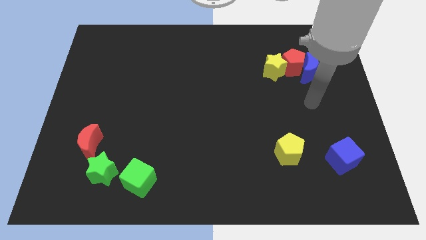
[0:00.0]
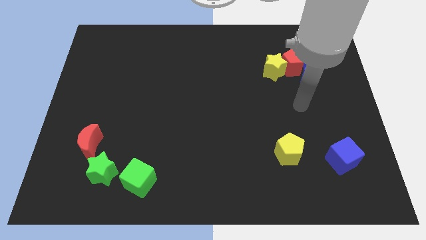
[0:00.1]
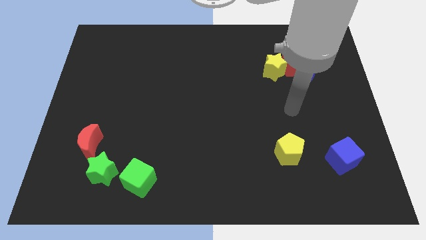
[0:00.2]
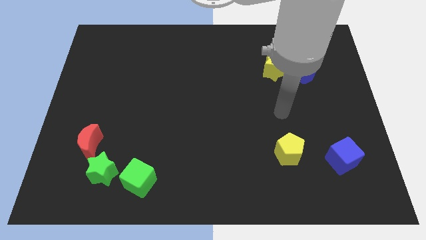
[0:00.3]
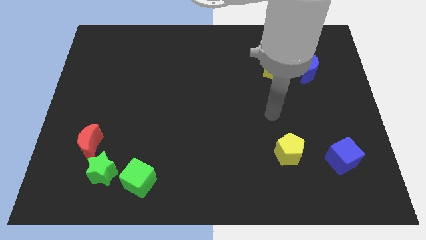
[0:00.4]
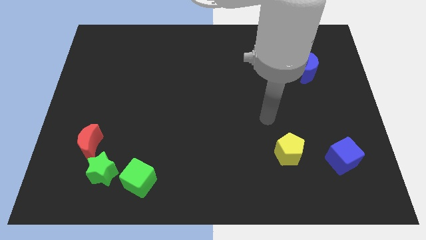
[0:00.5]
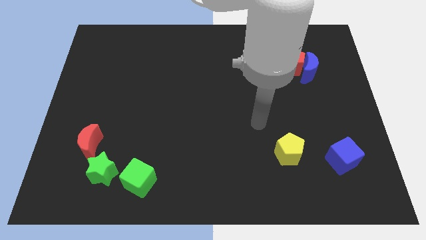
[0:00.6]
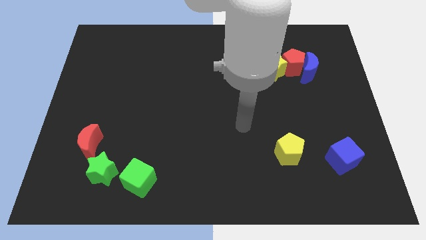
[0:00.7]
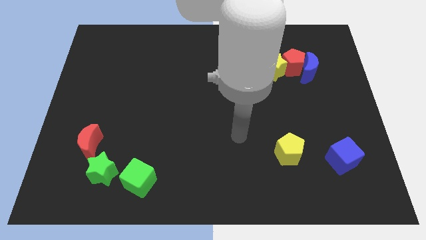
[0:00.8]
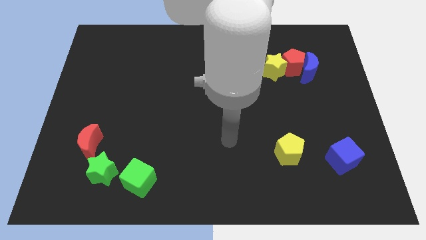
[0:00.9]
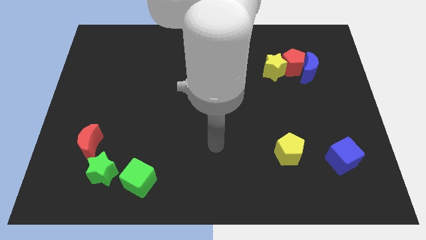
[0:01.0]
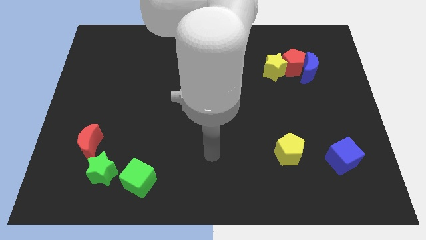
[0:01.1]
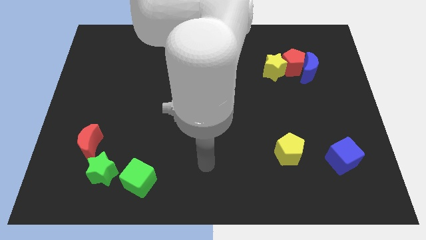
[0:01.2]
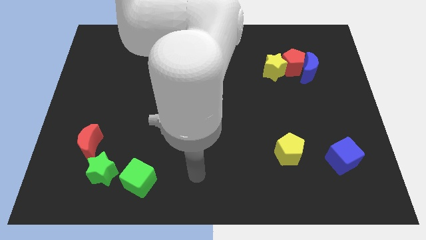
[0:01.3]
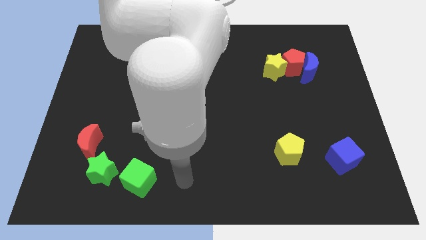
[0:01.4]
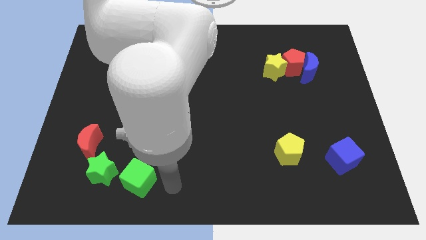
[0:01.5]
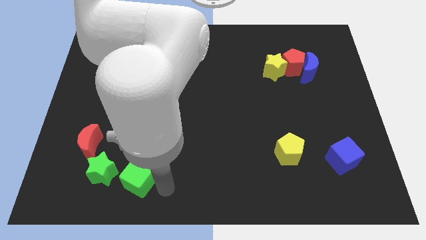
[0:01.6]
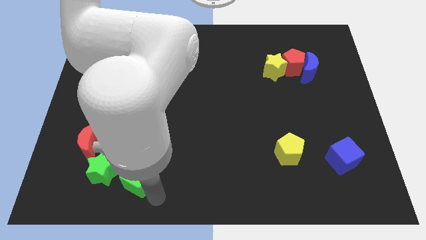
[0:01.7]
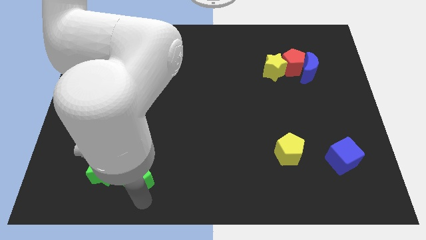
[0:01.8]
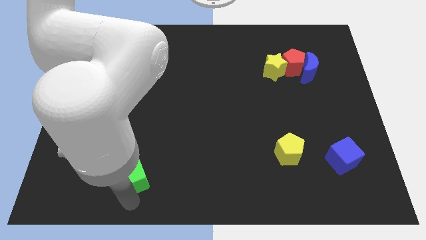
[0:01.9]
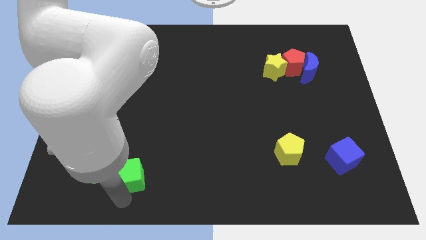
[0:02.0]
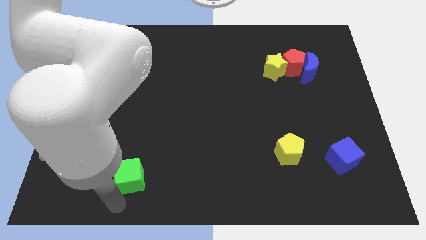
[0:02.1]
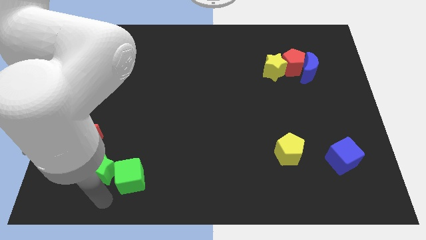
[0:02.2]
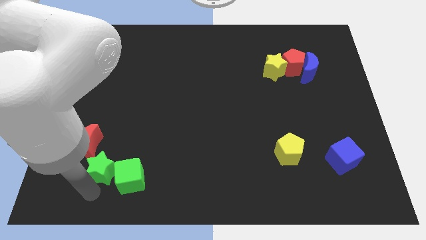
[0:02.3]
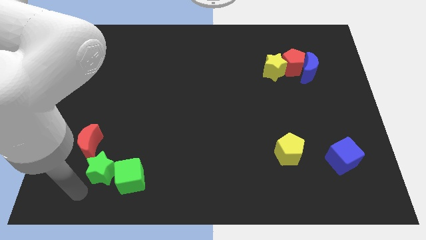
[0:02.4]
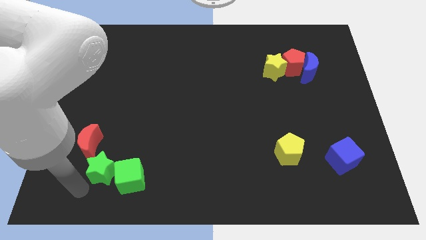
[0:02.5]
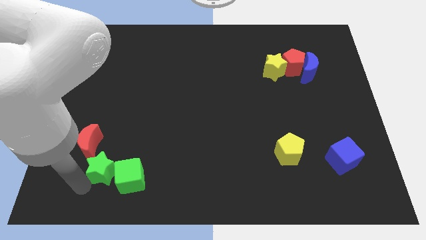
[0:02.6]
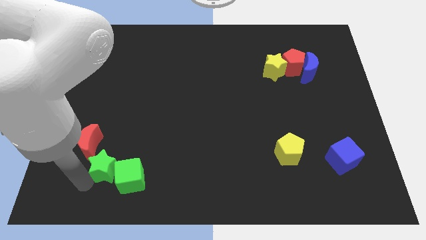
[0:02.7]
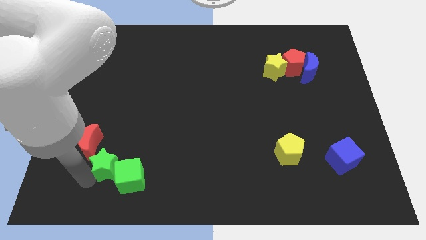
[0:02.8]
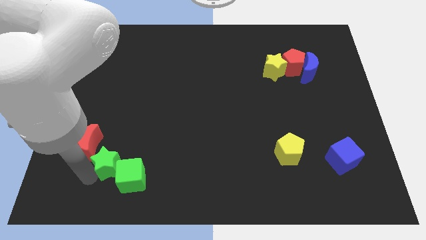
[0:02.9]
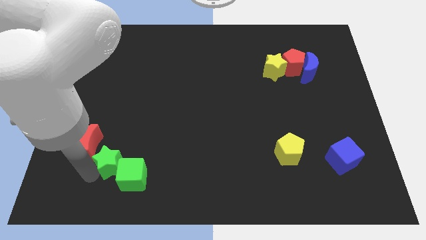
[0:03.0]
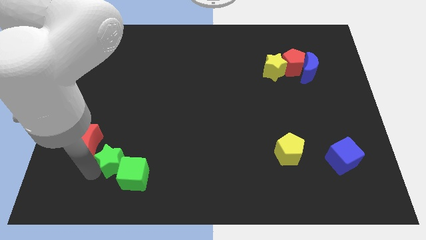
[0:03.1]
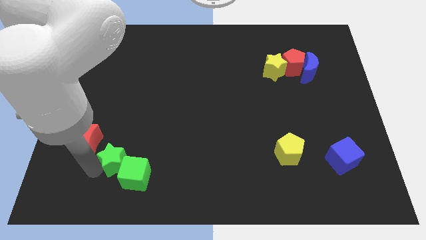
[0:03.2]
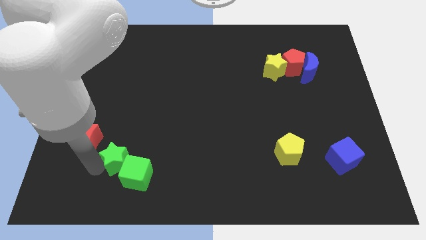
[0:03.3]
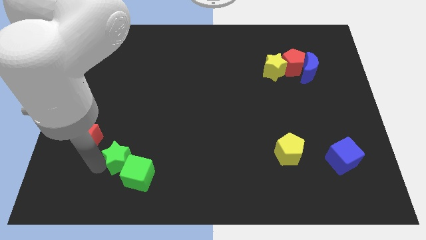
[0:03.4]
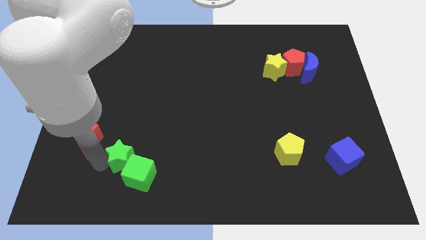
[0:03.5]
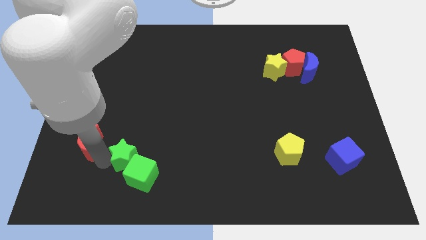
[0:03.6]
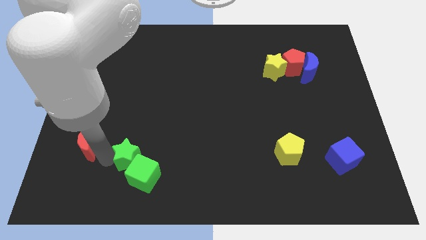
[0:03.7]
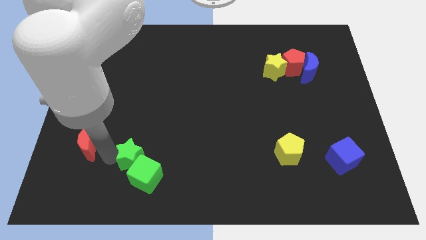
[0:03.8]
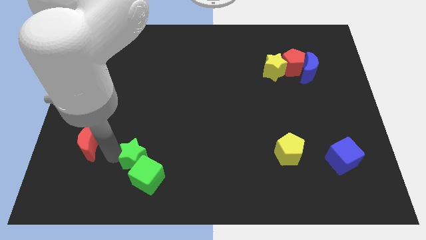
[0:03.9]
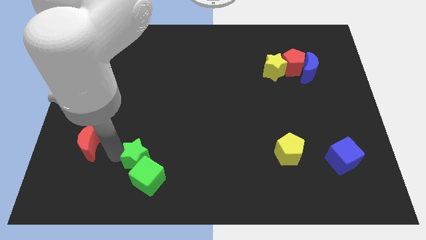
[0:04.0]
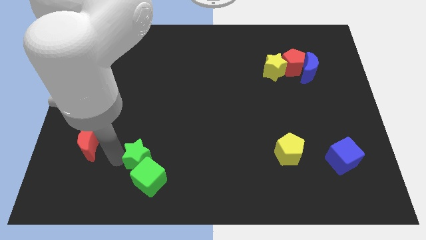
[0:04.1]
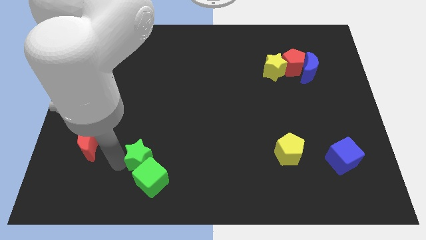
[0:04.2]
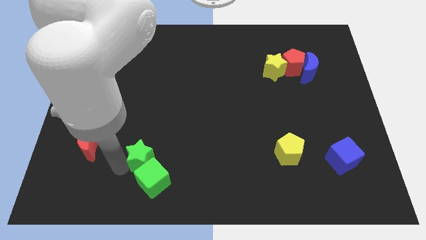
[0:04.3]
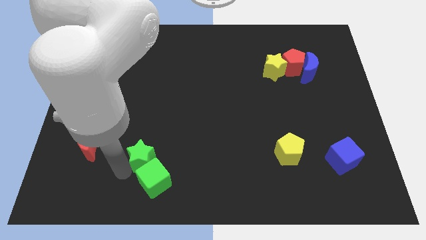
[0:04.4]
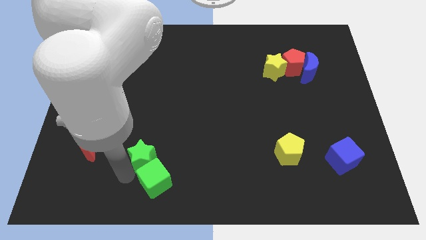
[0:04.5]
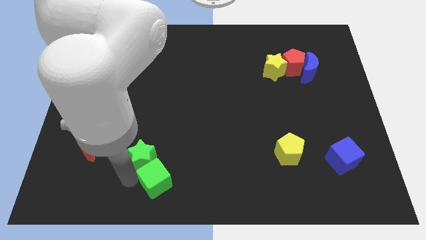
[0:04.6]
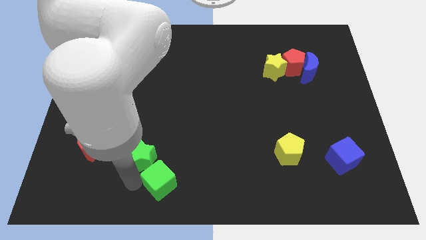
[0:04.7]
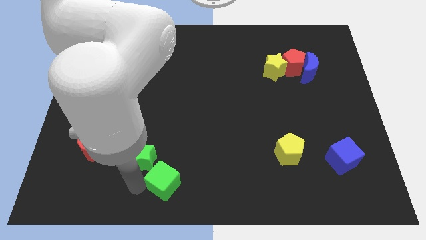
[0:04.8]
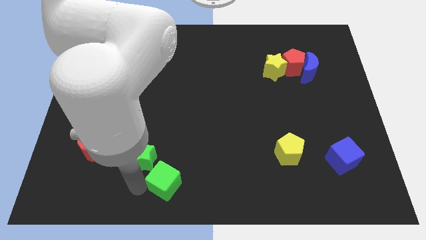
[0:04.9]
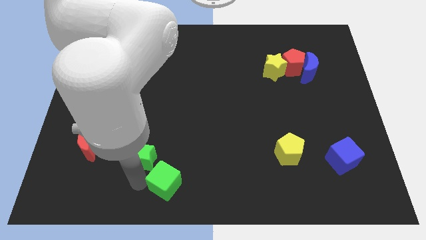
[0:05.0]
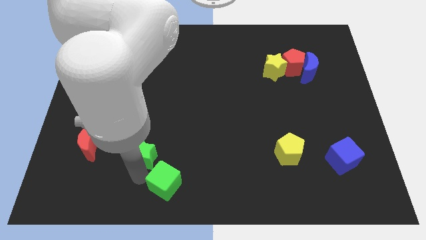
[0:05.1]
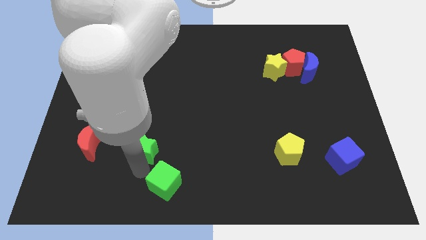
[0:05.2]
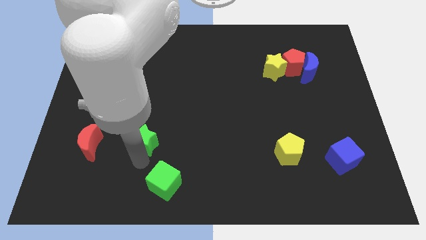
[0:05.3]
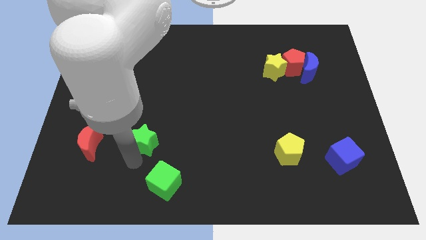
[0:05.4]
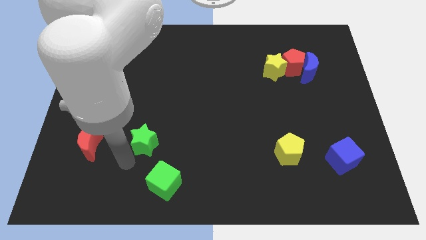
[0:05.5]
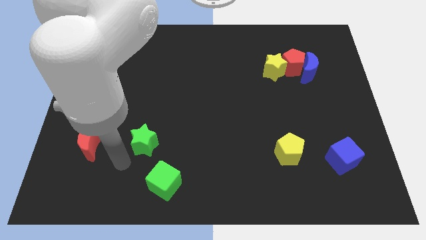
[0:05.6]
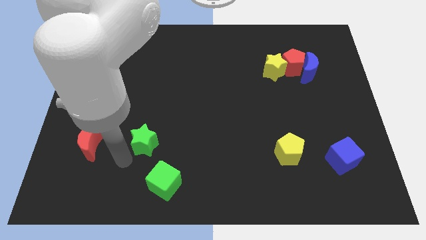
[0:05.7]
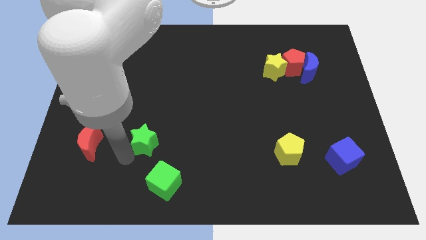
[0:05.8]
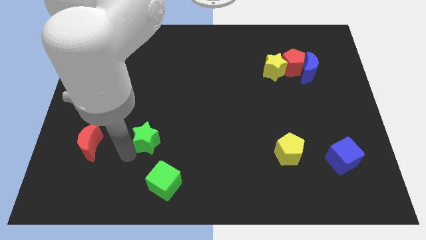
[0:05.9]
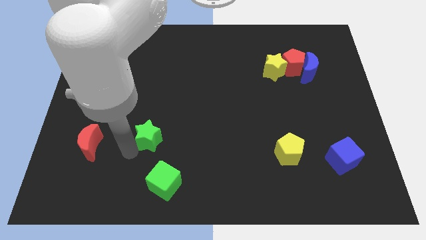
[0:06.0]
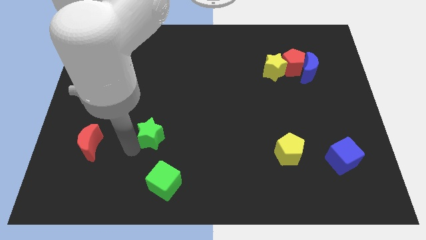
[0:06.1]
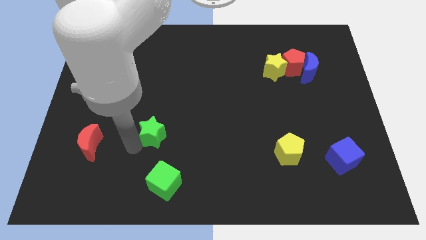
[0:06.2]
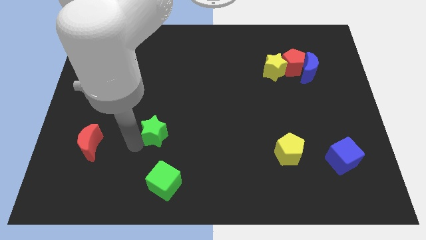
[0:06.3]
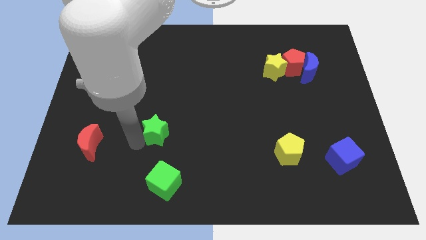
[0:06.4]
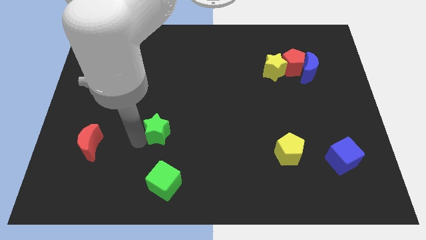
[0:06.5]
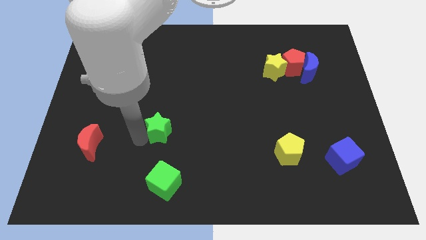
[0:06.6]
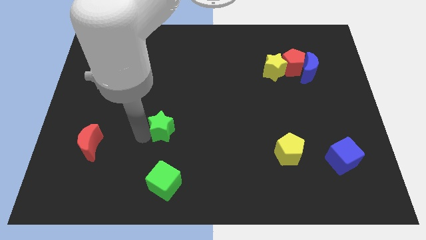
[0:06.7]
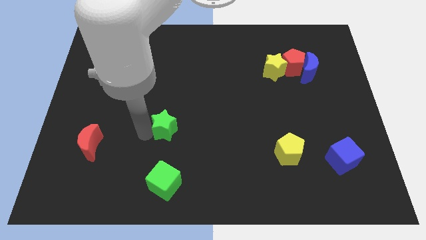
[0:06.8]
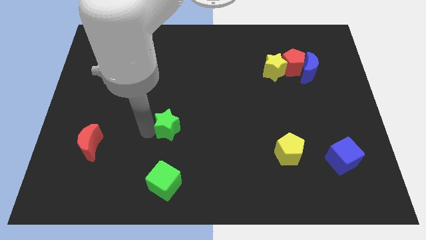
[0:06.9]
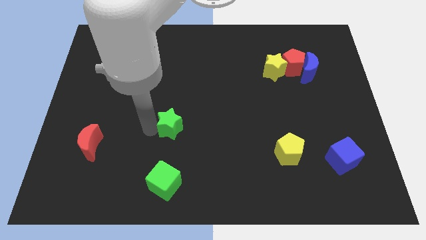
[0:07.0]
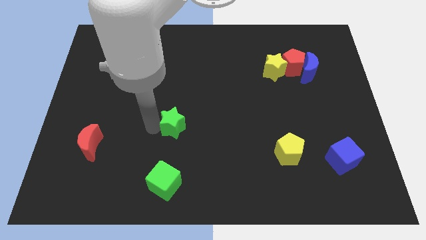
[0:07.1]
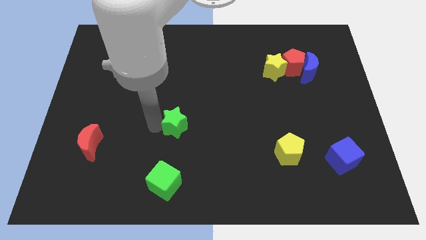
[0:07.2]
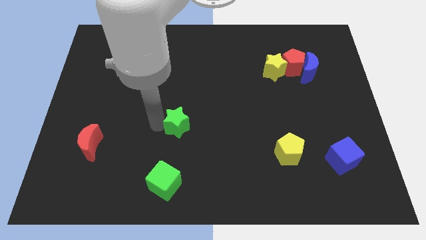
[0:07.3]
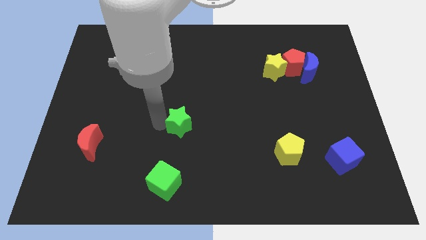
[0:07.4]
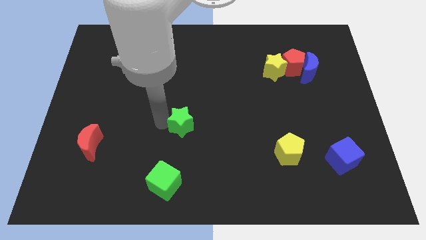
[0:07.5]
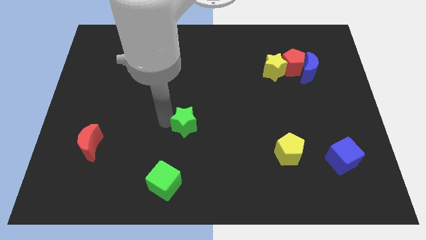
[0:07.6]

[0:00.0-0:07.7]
move the green star upwards and then to the right
